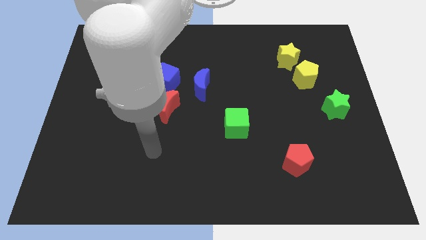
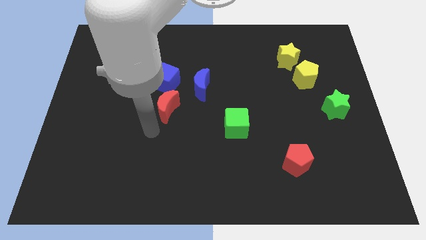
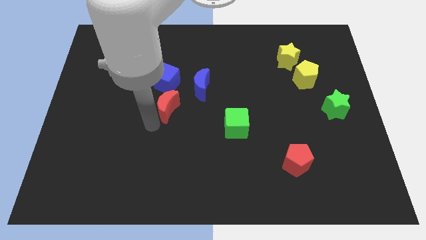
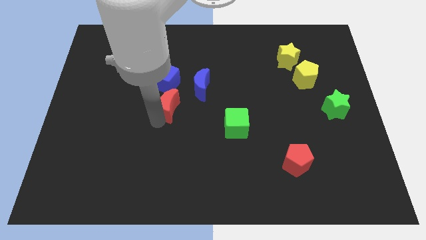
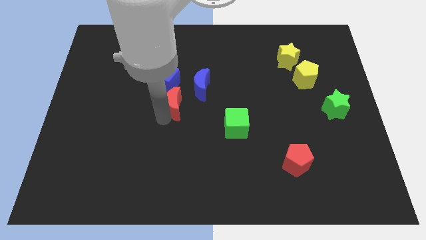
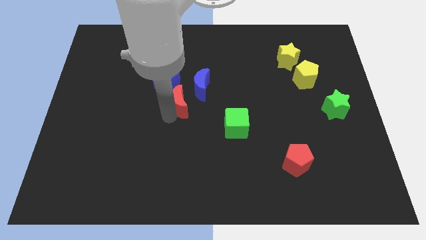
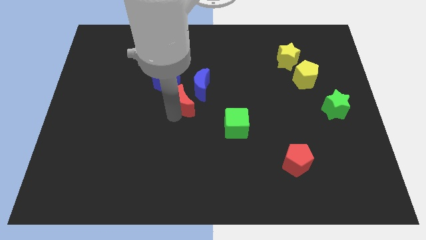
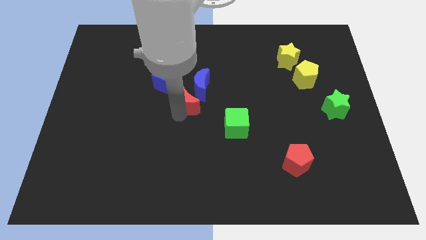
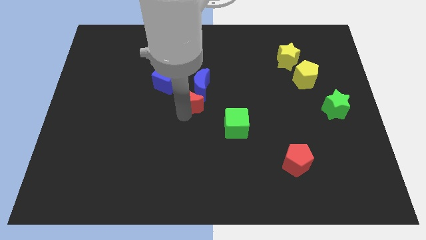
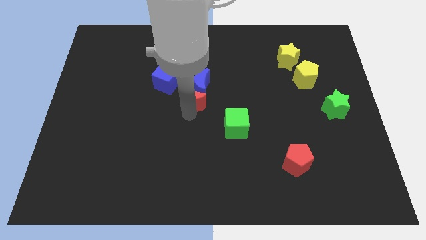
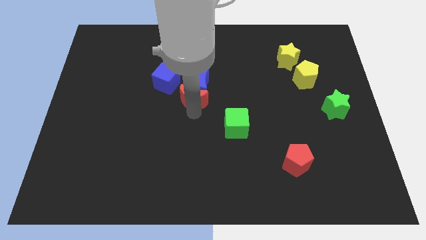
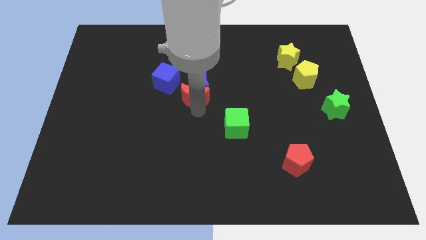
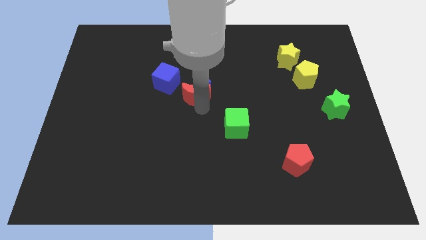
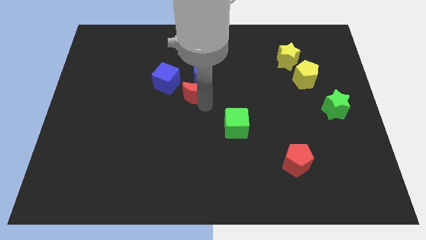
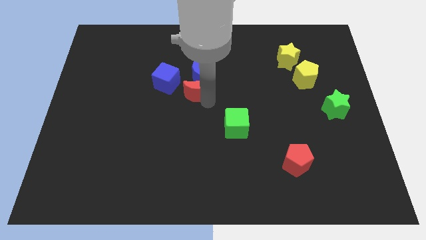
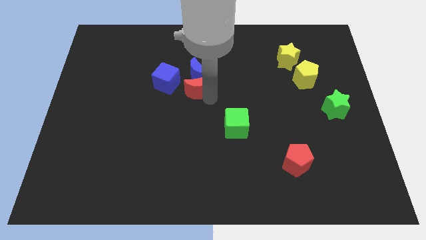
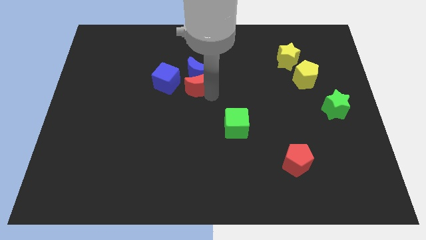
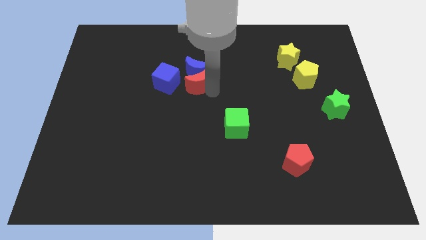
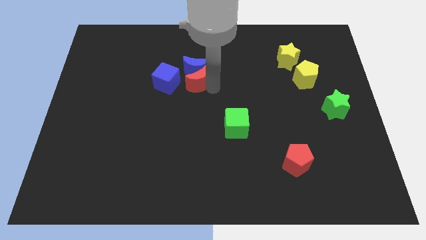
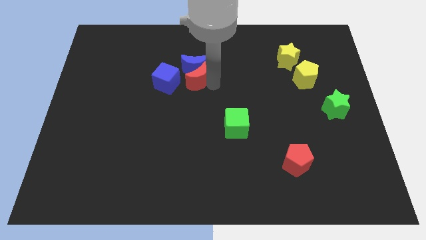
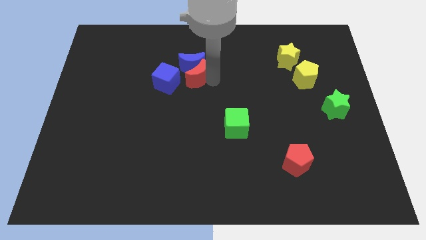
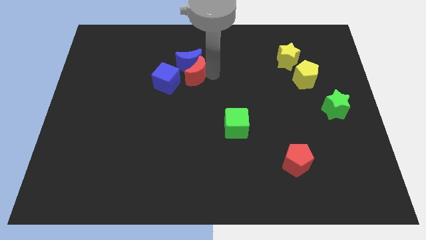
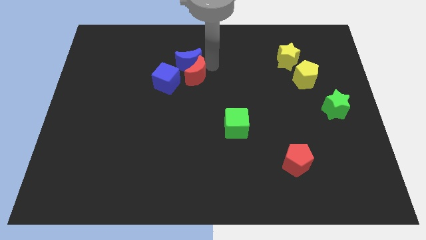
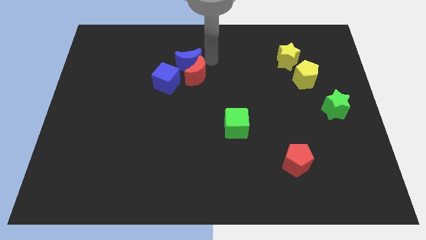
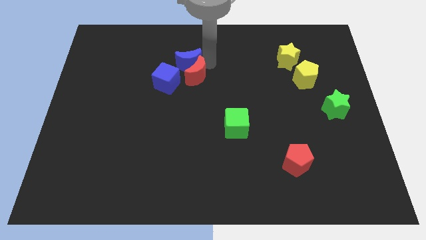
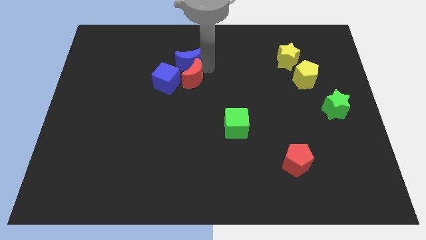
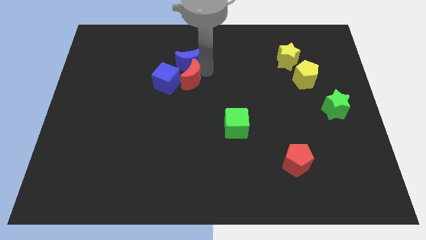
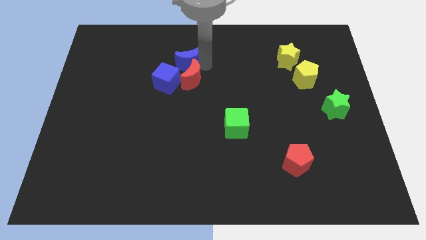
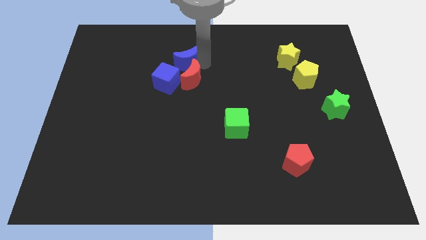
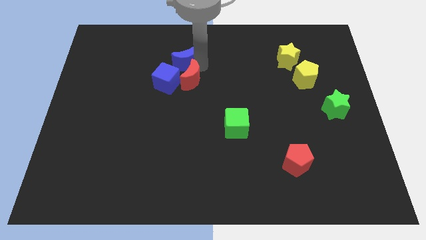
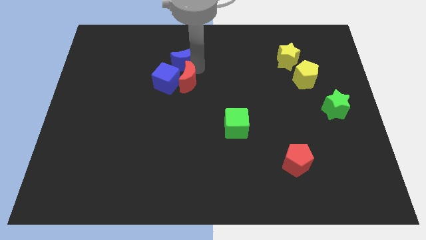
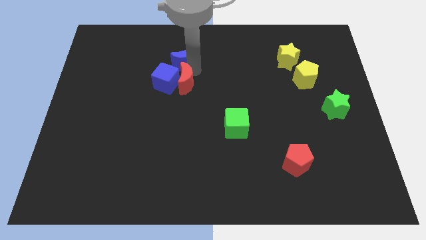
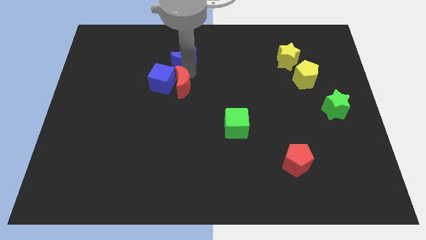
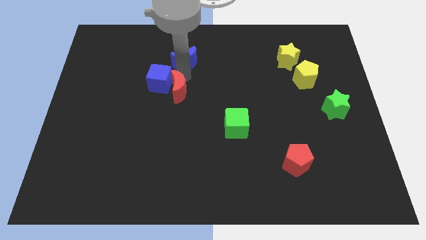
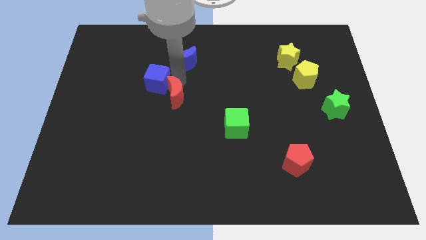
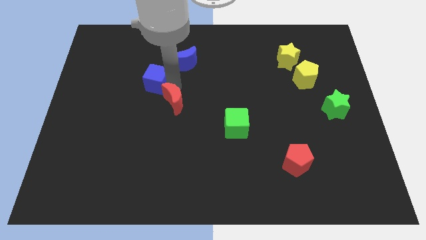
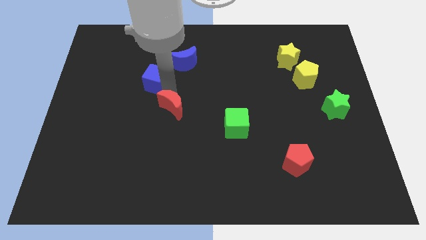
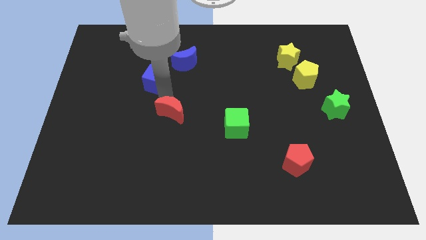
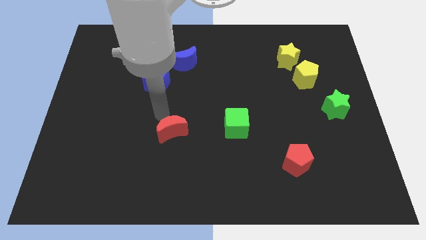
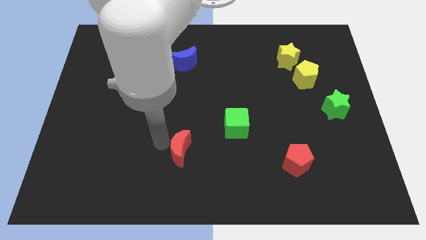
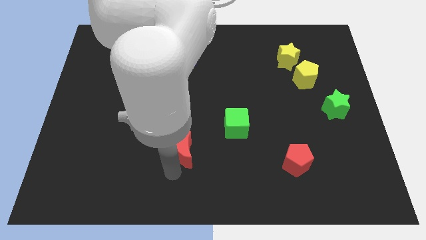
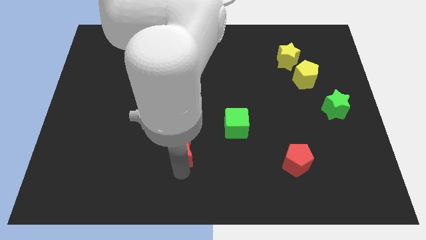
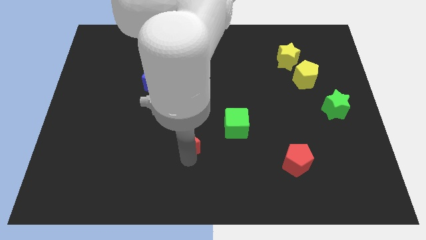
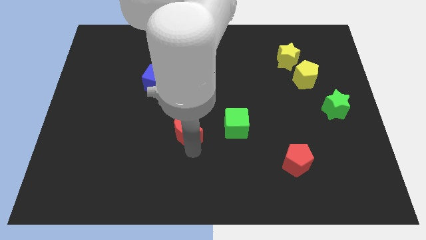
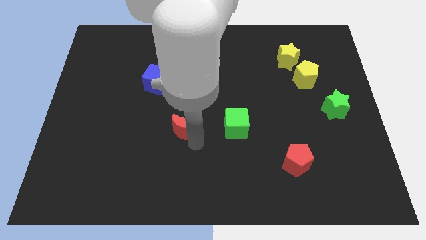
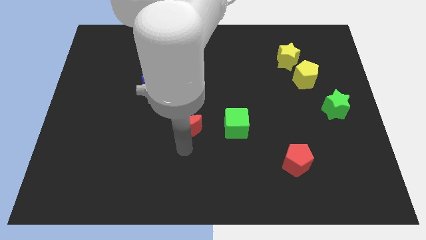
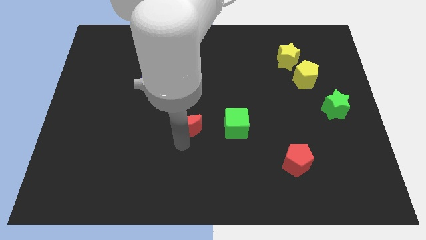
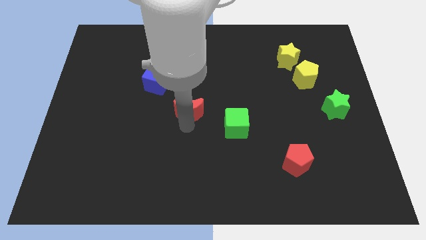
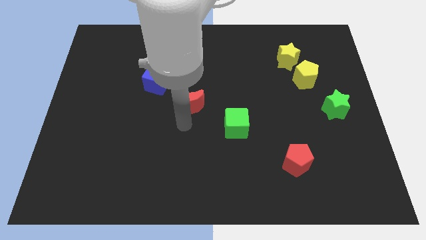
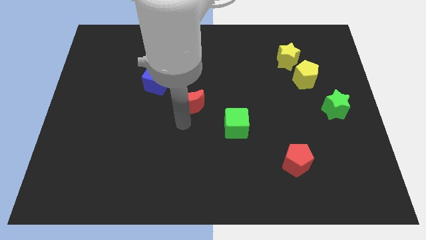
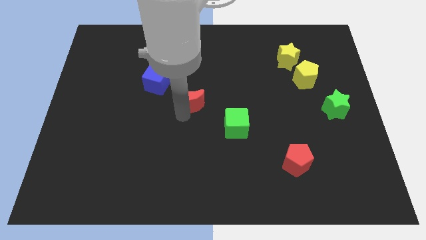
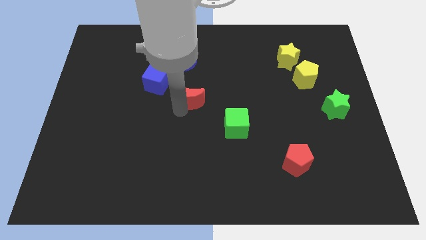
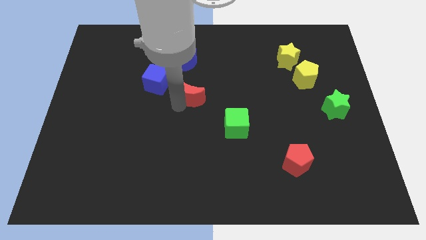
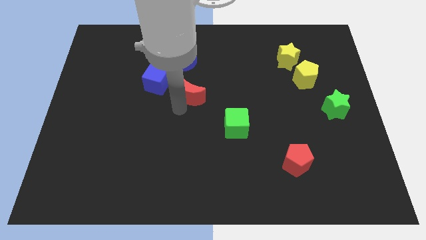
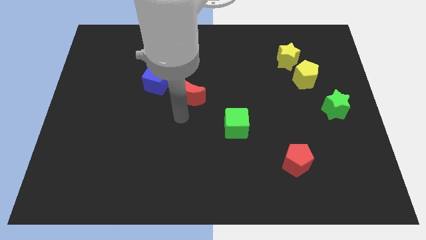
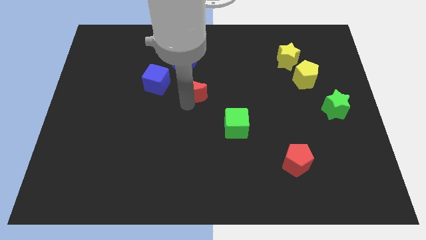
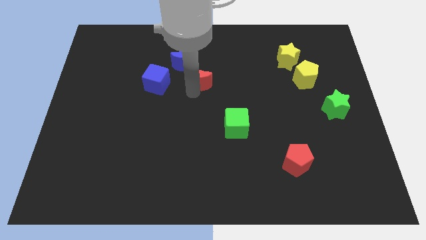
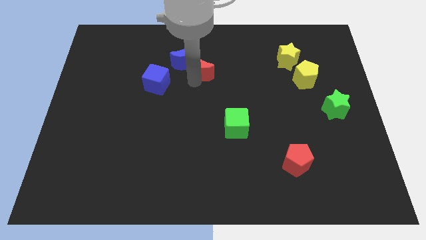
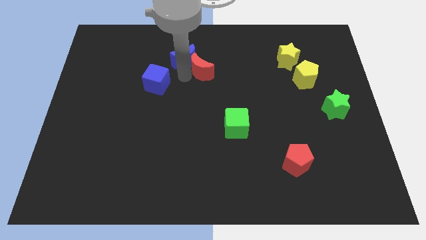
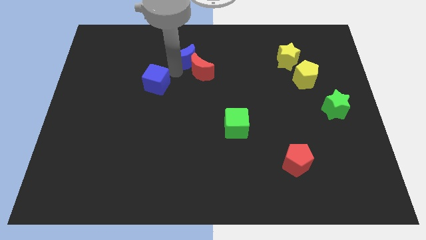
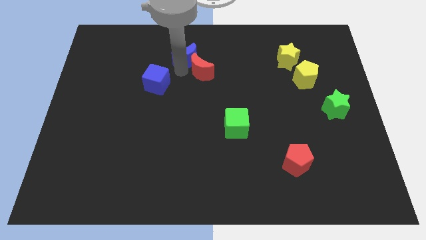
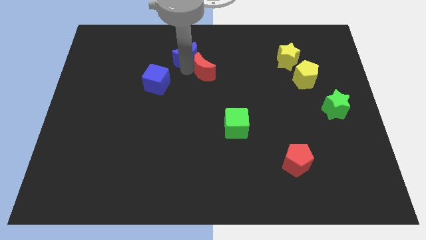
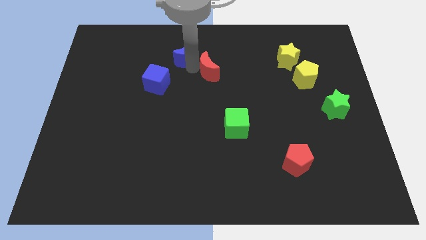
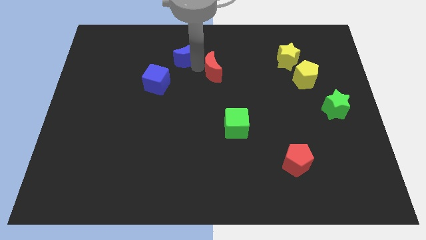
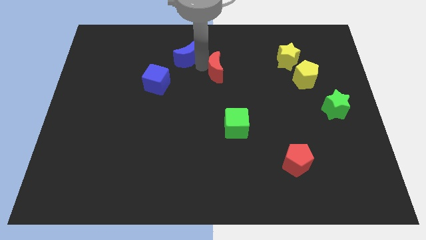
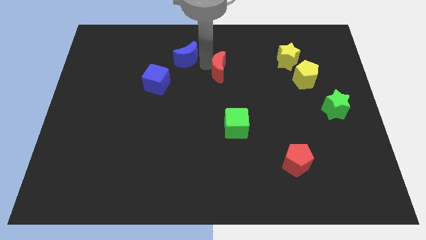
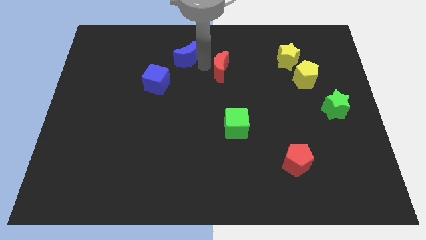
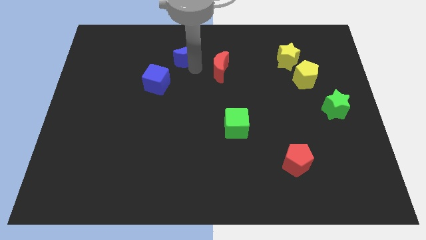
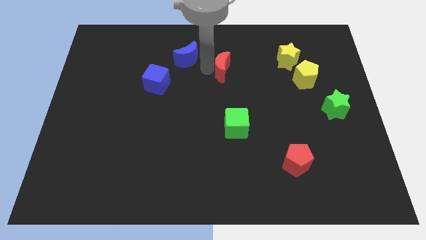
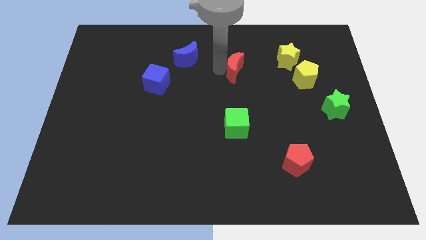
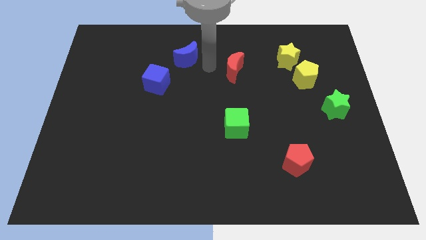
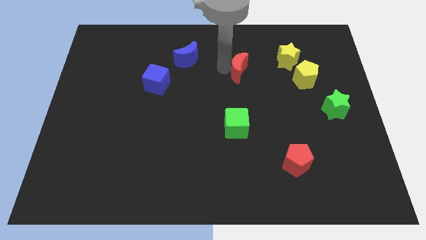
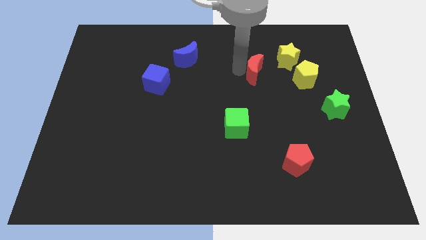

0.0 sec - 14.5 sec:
slide the red moon to the bottom left side of the yellow star
